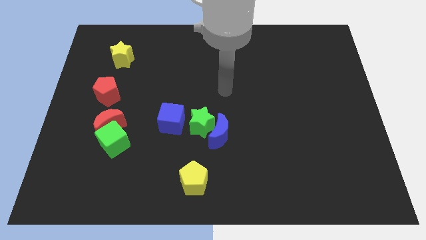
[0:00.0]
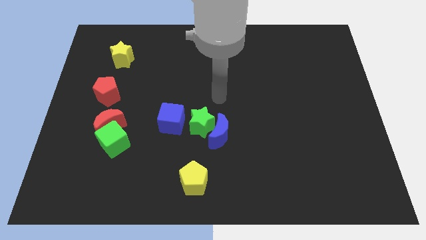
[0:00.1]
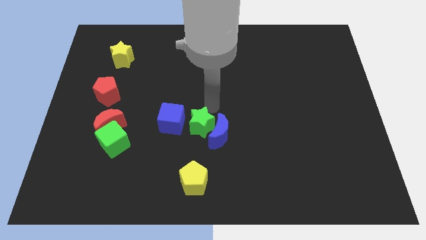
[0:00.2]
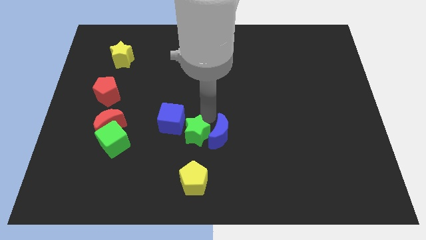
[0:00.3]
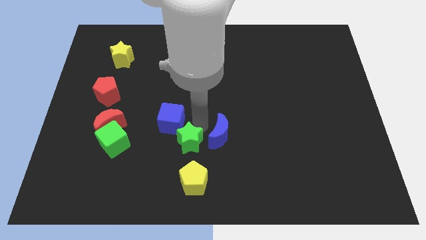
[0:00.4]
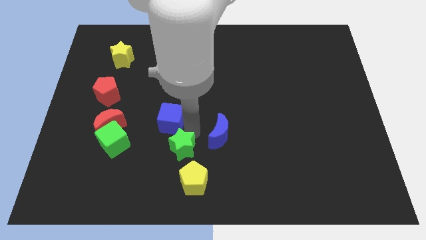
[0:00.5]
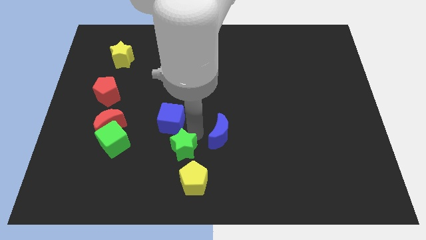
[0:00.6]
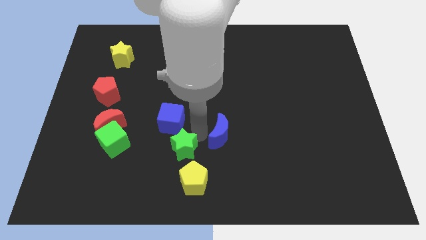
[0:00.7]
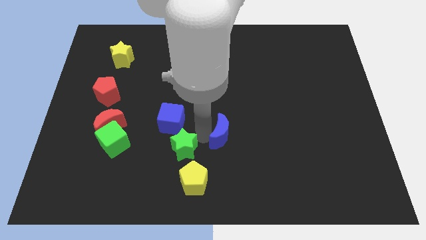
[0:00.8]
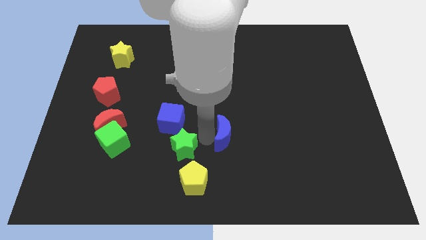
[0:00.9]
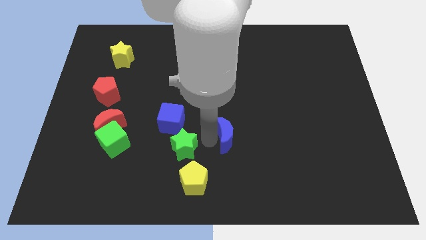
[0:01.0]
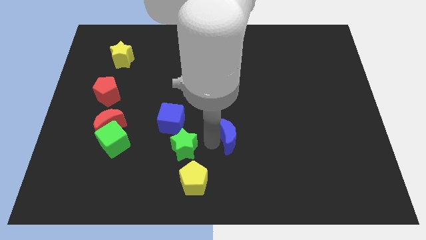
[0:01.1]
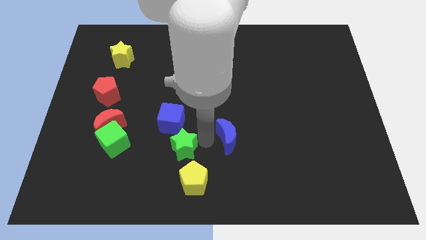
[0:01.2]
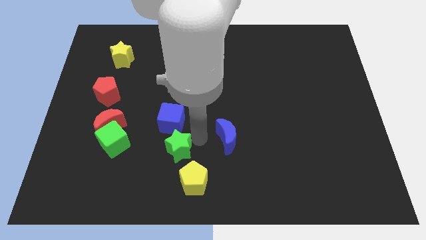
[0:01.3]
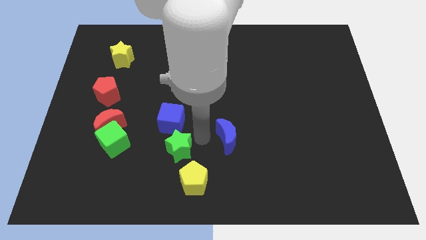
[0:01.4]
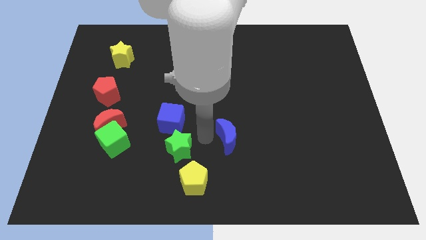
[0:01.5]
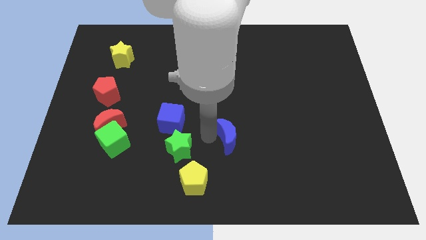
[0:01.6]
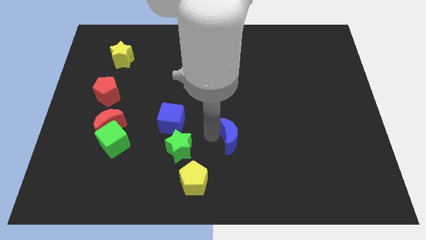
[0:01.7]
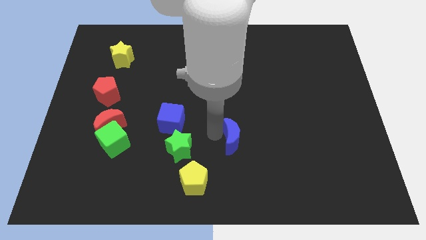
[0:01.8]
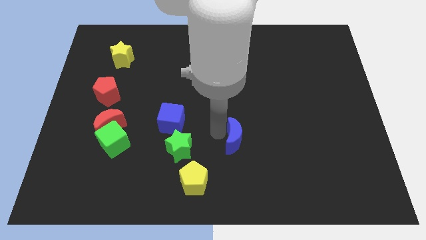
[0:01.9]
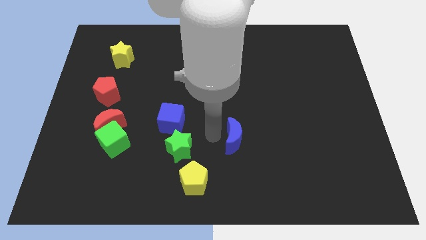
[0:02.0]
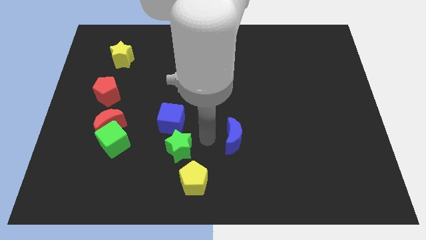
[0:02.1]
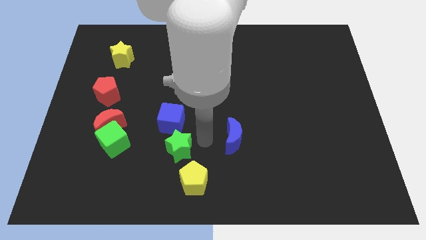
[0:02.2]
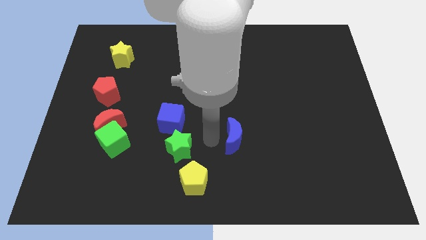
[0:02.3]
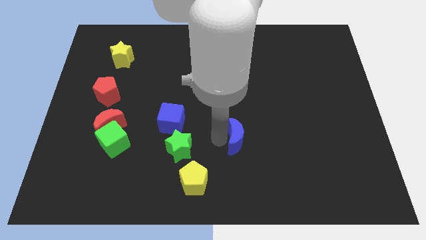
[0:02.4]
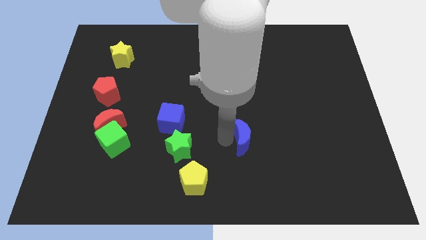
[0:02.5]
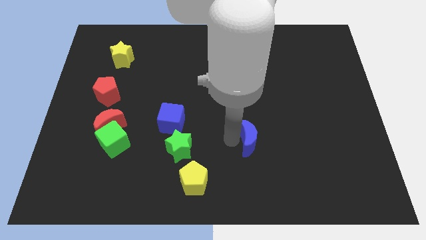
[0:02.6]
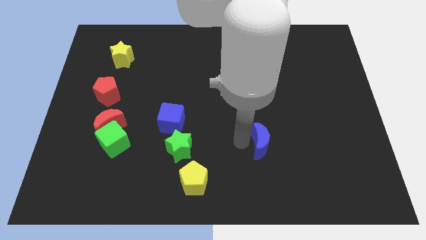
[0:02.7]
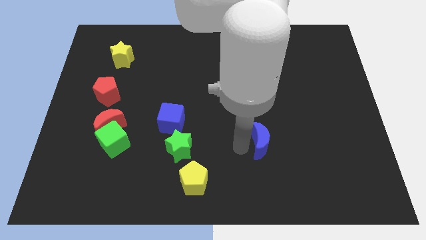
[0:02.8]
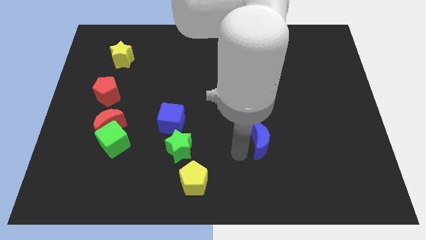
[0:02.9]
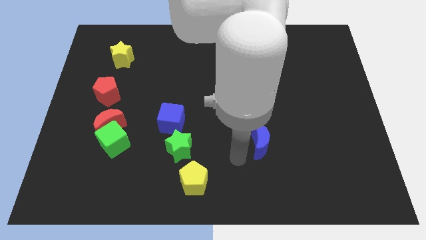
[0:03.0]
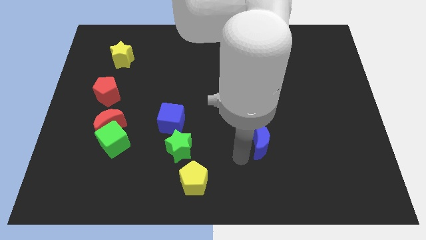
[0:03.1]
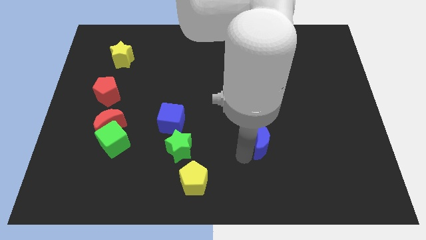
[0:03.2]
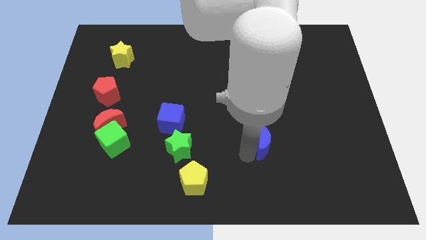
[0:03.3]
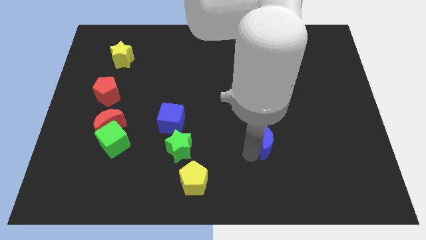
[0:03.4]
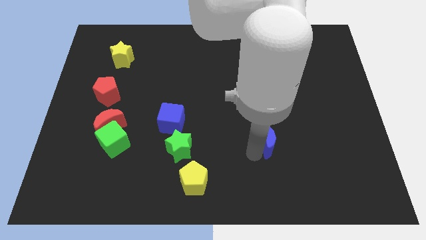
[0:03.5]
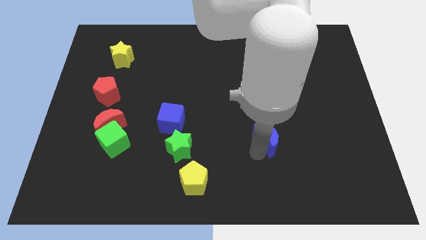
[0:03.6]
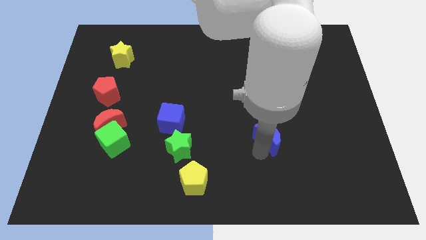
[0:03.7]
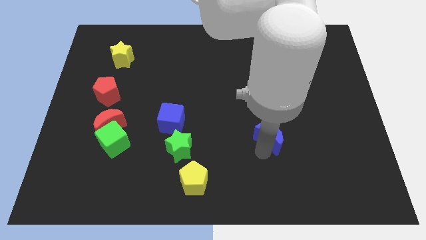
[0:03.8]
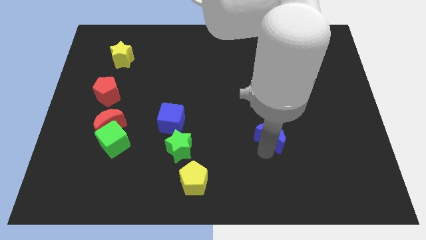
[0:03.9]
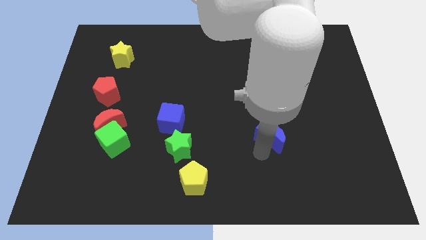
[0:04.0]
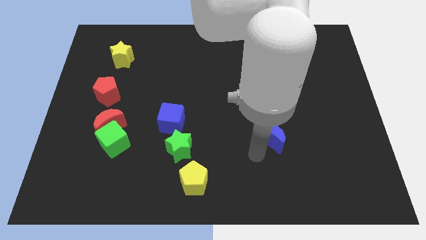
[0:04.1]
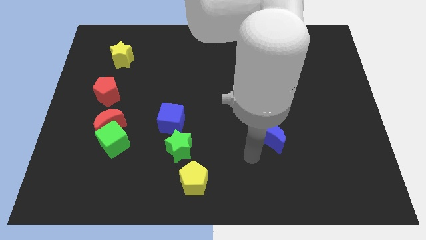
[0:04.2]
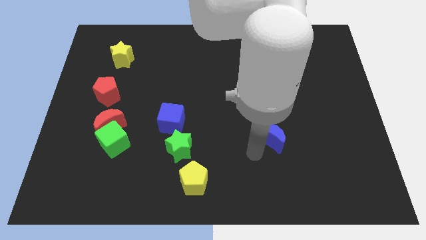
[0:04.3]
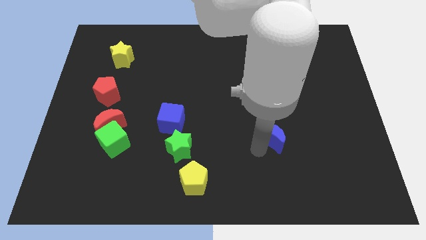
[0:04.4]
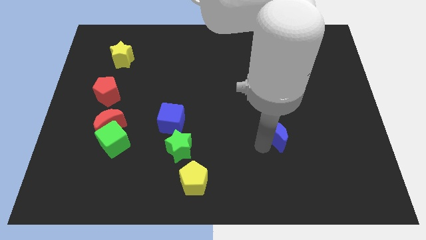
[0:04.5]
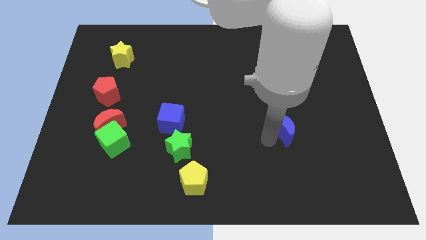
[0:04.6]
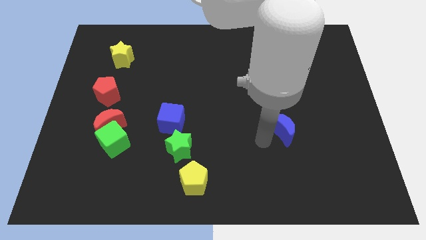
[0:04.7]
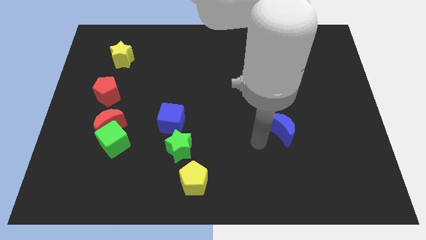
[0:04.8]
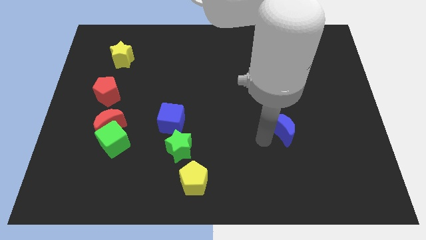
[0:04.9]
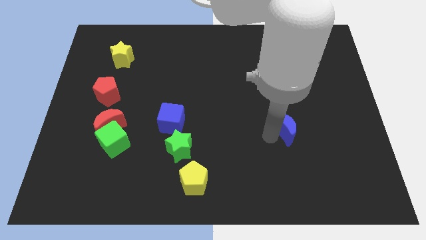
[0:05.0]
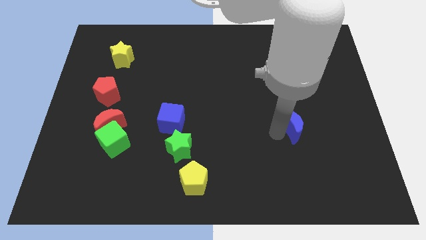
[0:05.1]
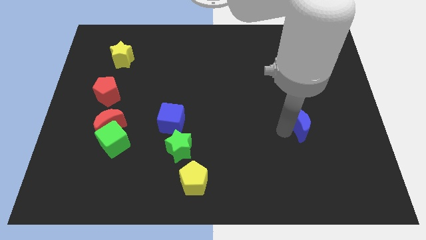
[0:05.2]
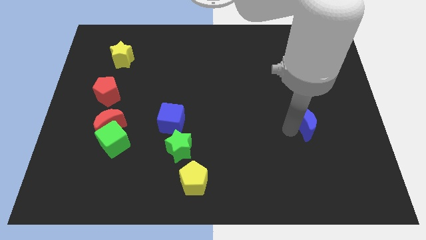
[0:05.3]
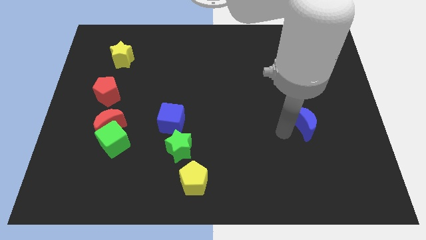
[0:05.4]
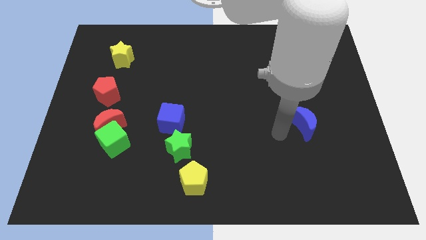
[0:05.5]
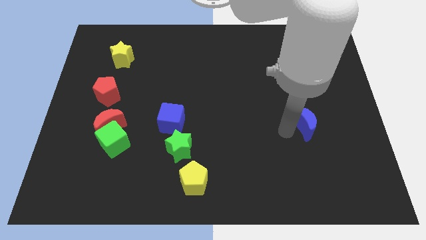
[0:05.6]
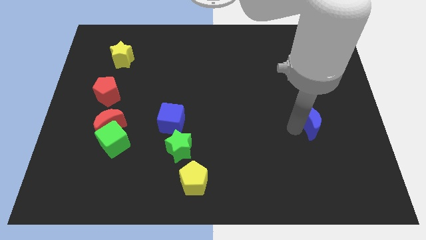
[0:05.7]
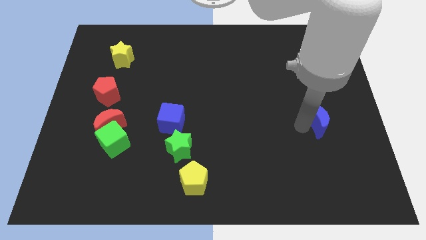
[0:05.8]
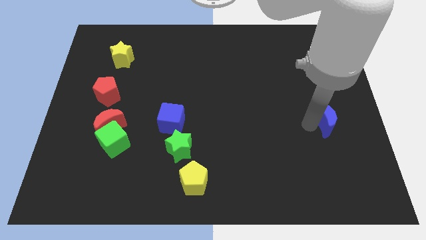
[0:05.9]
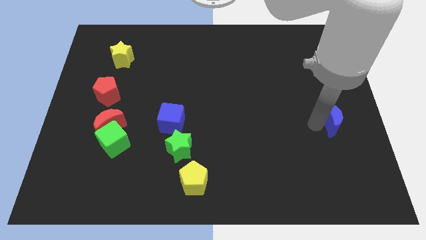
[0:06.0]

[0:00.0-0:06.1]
slide the blue moon to the center right

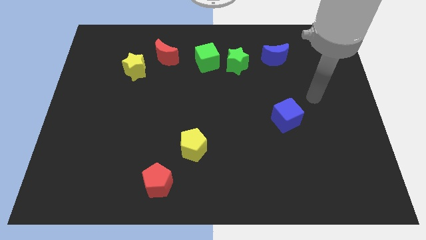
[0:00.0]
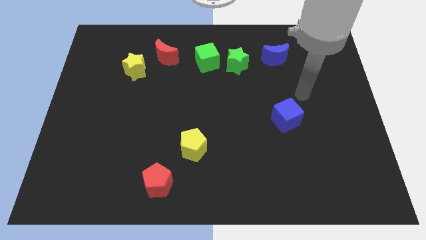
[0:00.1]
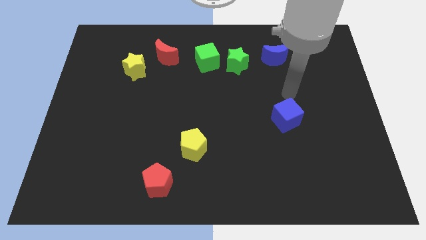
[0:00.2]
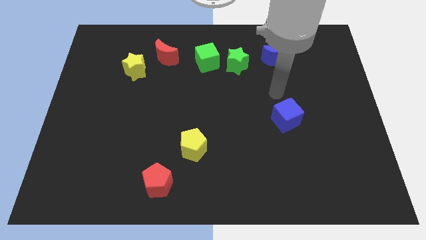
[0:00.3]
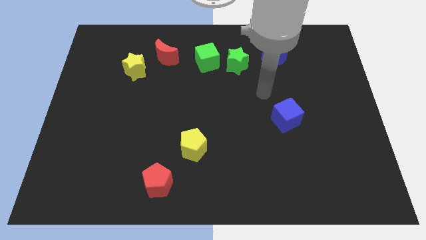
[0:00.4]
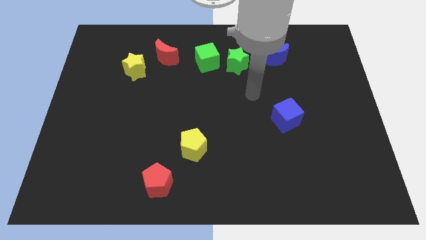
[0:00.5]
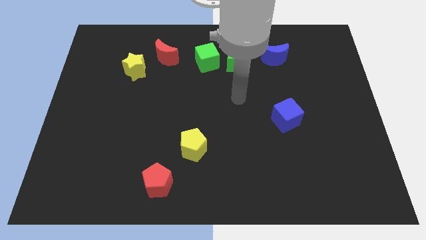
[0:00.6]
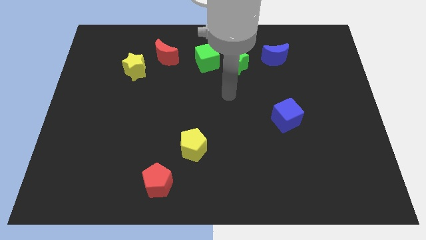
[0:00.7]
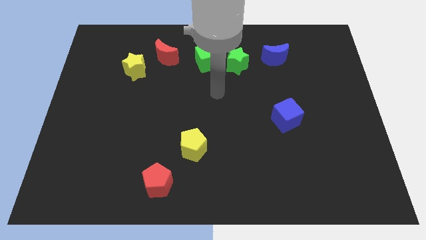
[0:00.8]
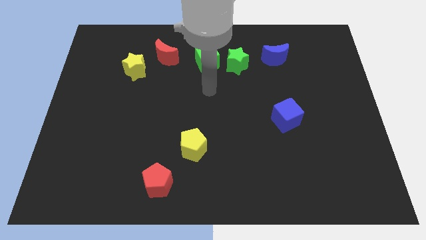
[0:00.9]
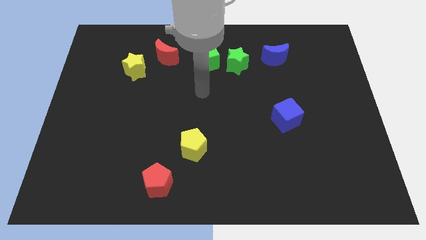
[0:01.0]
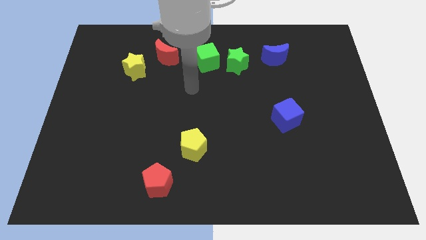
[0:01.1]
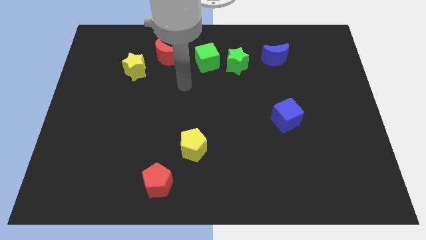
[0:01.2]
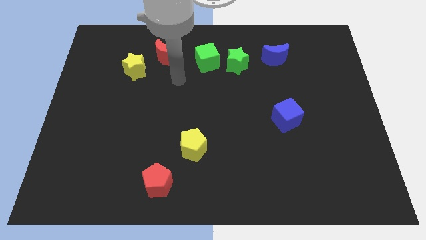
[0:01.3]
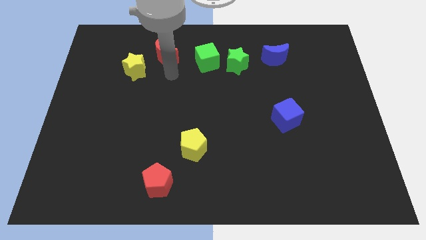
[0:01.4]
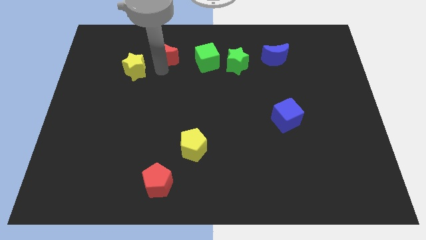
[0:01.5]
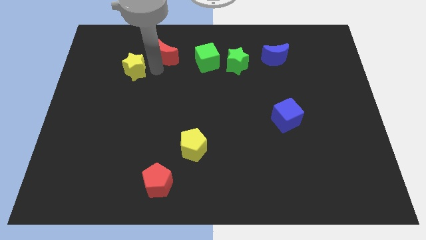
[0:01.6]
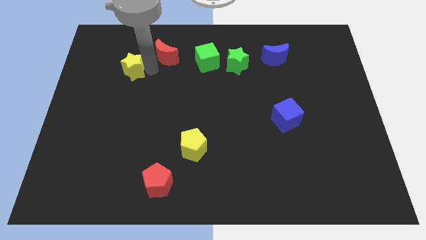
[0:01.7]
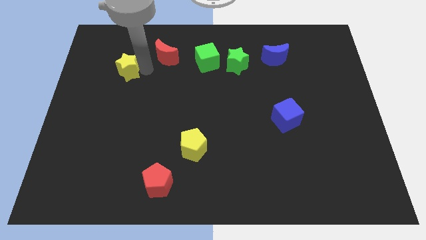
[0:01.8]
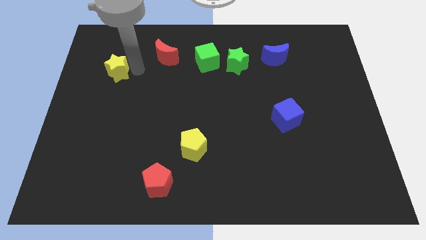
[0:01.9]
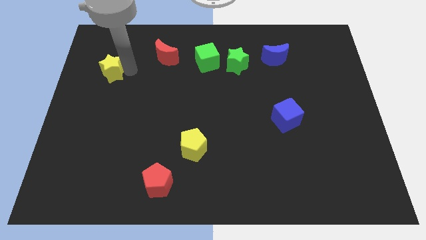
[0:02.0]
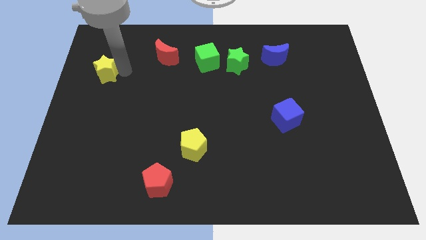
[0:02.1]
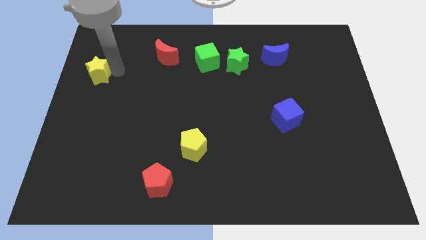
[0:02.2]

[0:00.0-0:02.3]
push the yellow star to the center left
